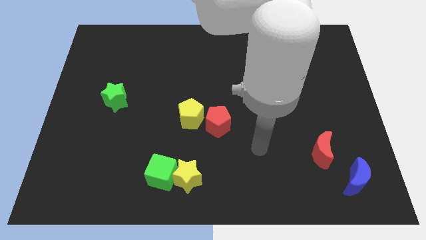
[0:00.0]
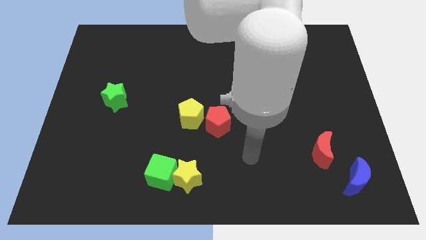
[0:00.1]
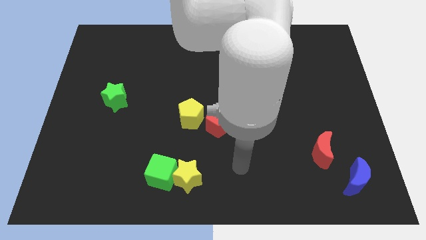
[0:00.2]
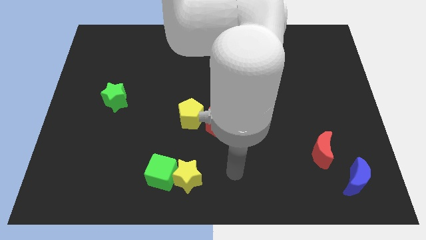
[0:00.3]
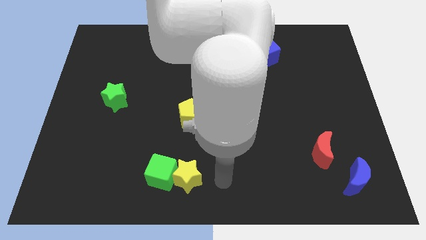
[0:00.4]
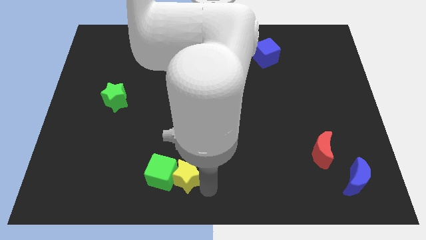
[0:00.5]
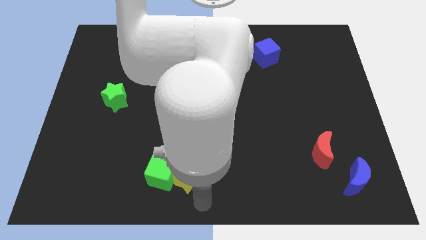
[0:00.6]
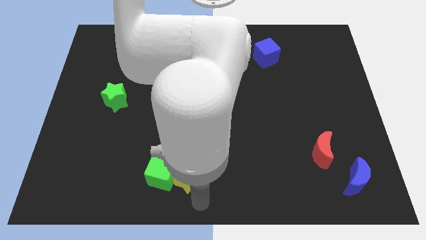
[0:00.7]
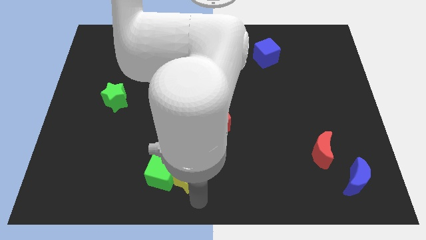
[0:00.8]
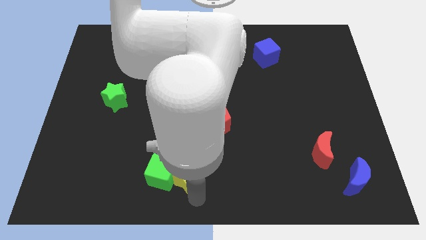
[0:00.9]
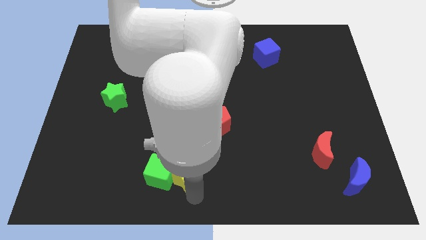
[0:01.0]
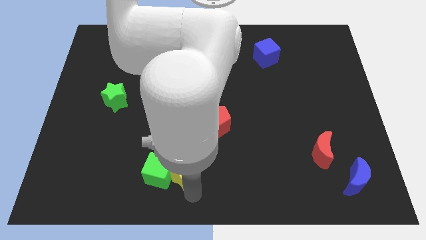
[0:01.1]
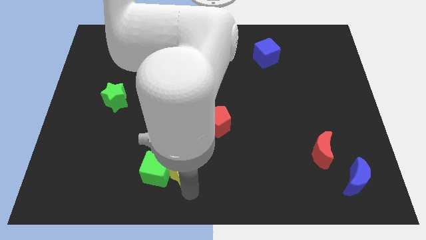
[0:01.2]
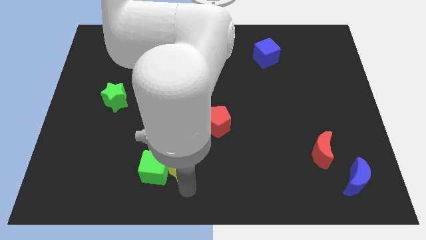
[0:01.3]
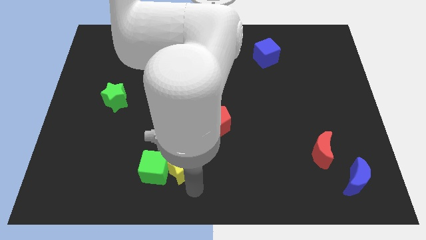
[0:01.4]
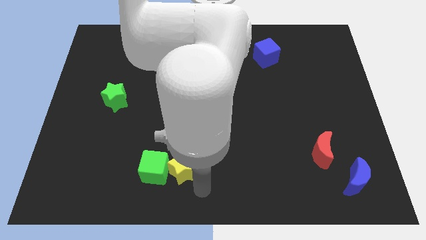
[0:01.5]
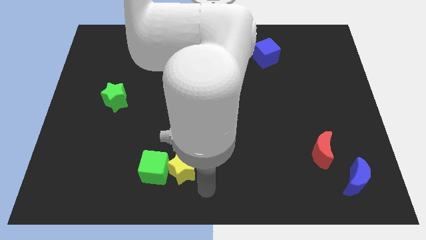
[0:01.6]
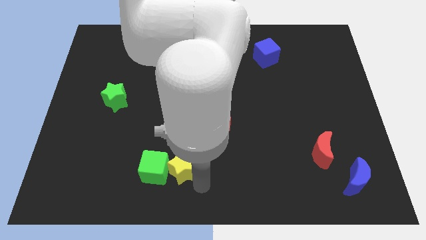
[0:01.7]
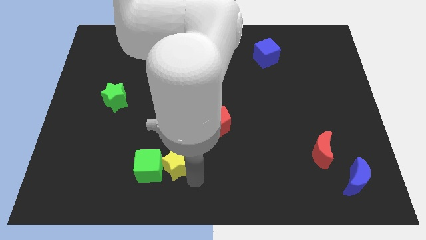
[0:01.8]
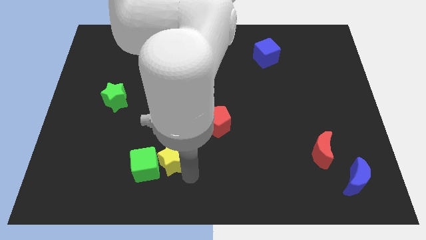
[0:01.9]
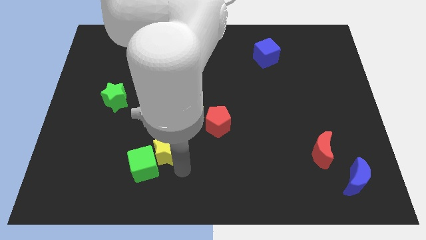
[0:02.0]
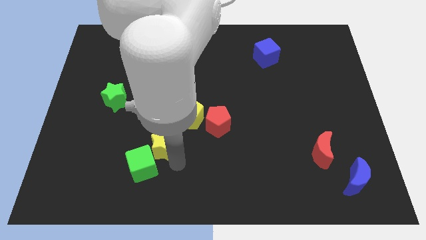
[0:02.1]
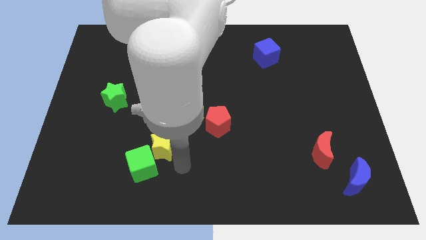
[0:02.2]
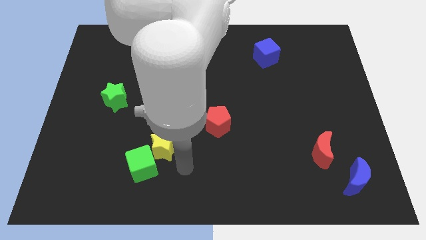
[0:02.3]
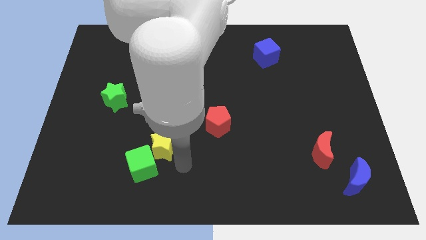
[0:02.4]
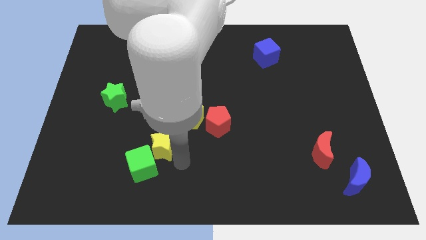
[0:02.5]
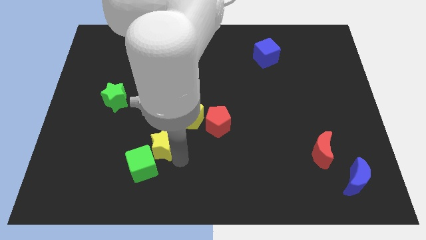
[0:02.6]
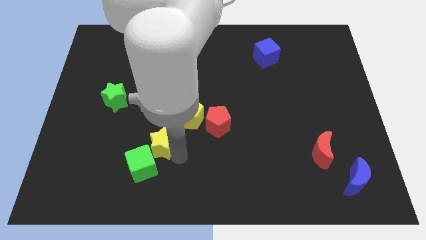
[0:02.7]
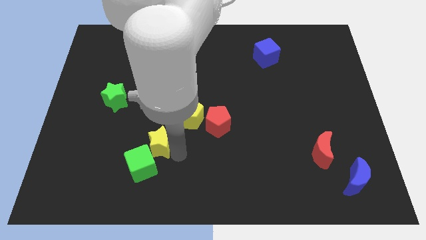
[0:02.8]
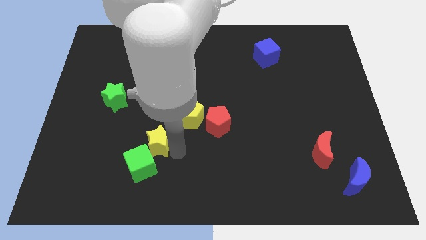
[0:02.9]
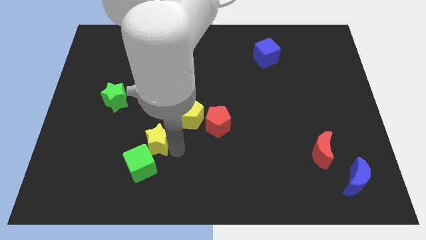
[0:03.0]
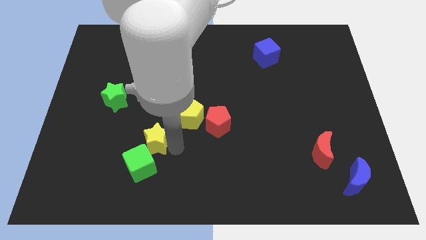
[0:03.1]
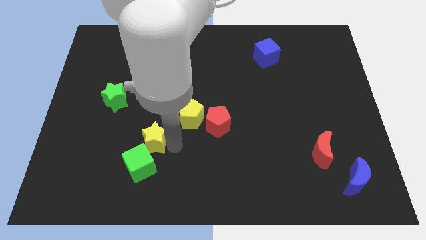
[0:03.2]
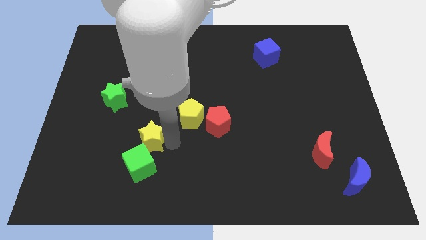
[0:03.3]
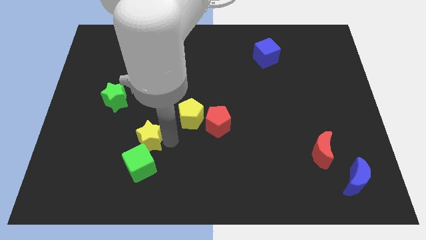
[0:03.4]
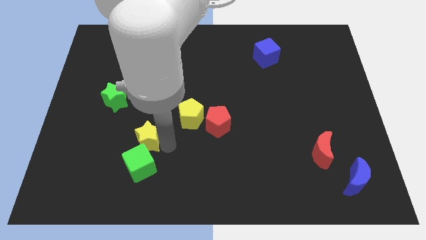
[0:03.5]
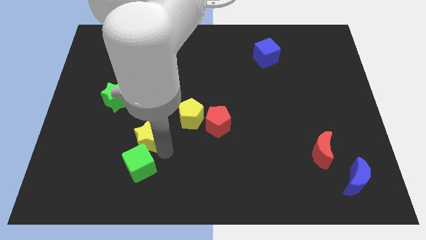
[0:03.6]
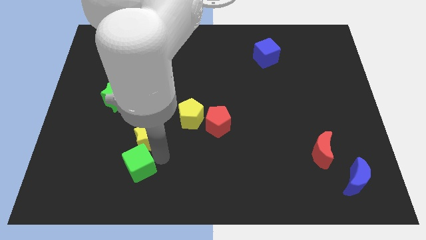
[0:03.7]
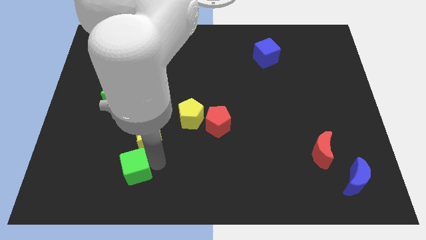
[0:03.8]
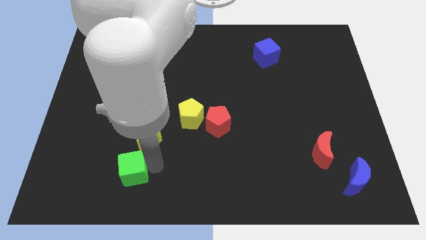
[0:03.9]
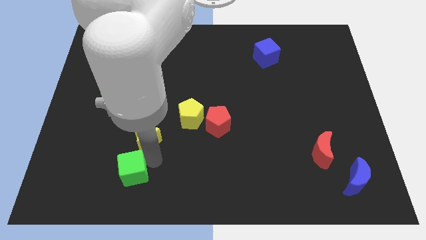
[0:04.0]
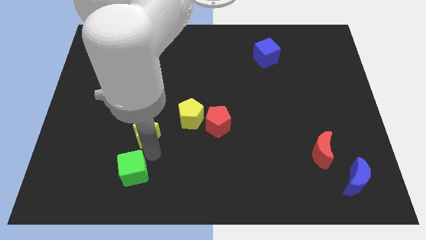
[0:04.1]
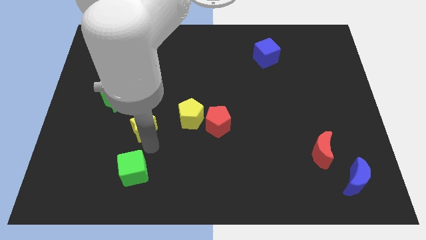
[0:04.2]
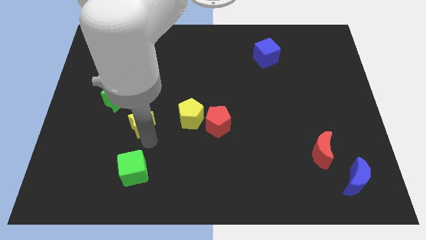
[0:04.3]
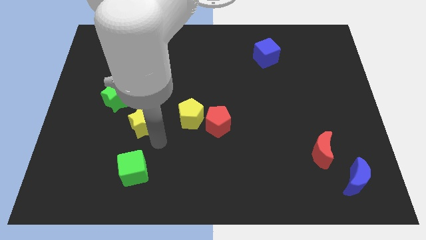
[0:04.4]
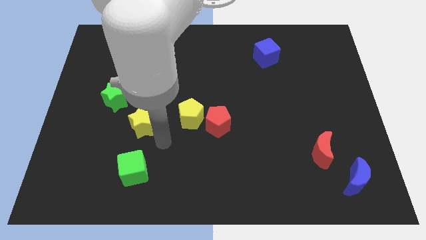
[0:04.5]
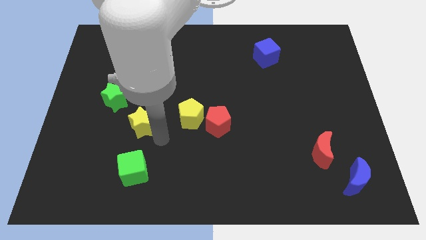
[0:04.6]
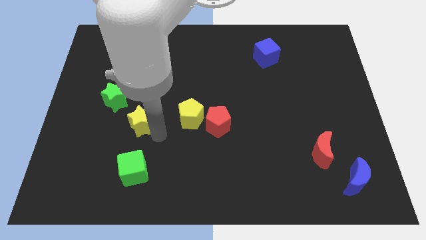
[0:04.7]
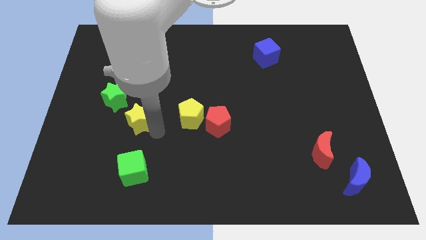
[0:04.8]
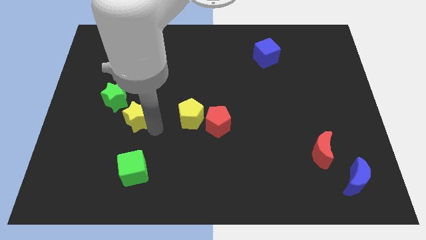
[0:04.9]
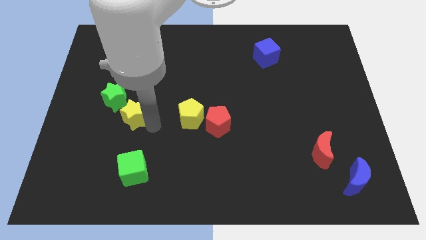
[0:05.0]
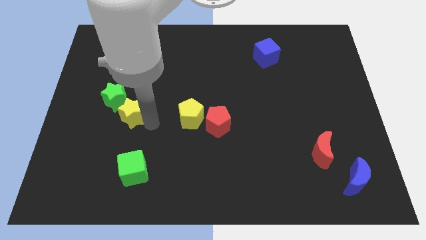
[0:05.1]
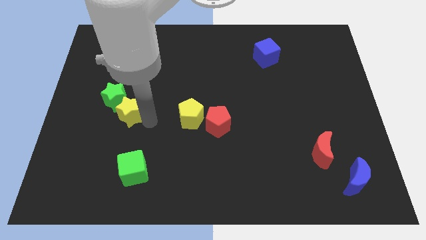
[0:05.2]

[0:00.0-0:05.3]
push the yellow star towards the green star

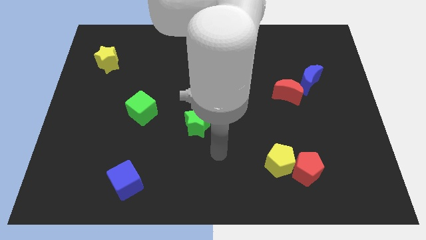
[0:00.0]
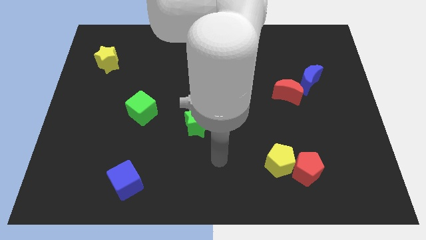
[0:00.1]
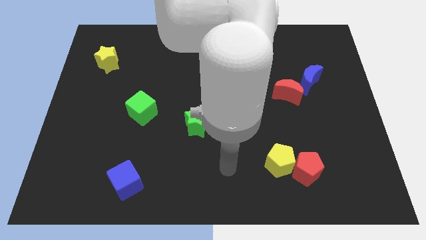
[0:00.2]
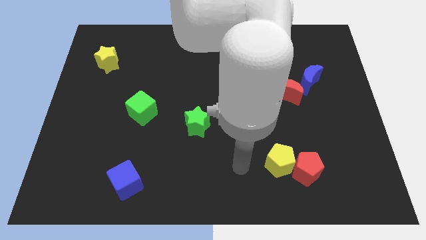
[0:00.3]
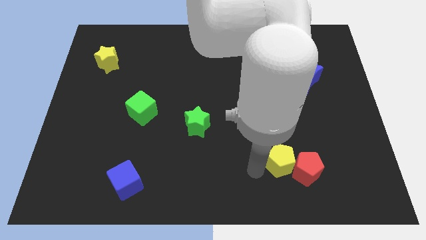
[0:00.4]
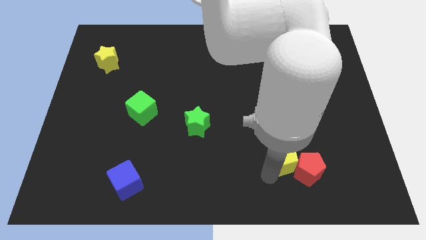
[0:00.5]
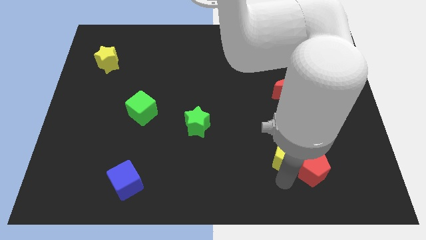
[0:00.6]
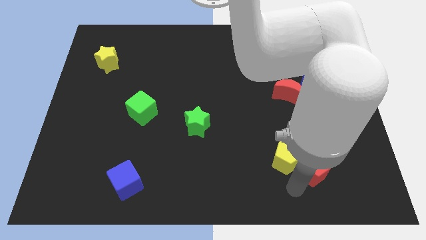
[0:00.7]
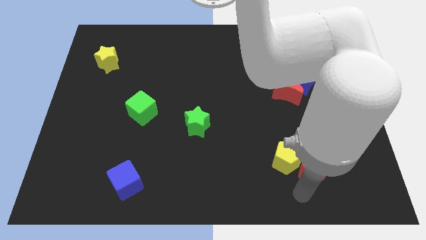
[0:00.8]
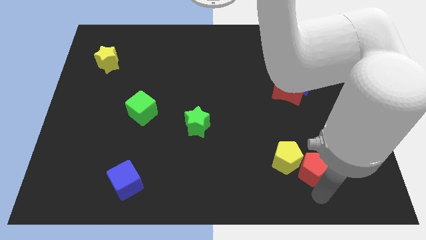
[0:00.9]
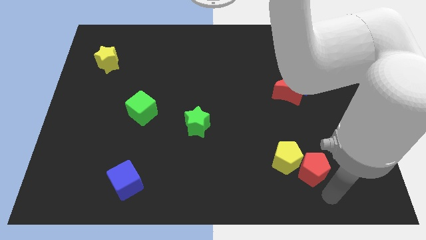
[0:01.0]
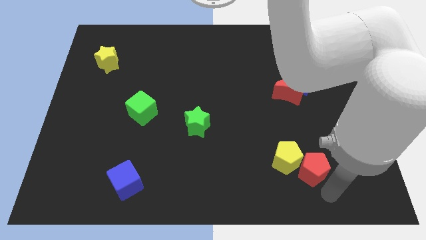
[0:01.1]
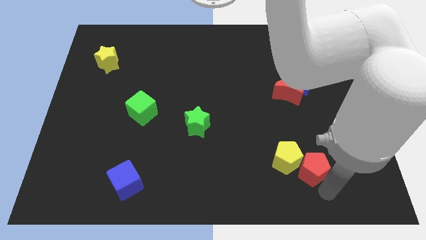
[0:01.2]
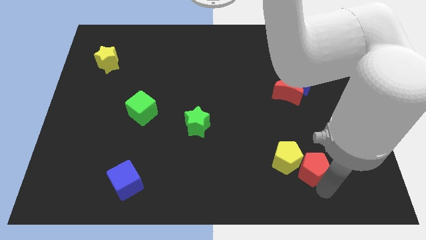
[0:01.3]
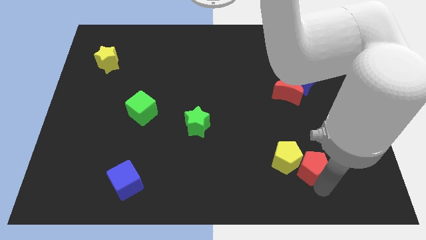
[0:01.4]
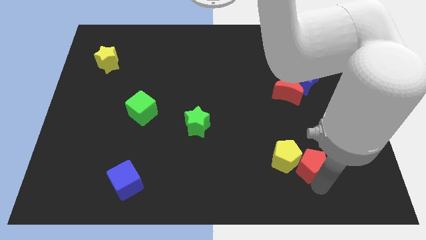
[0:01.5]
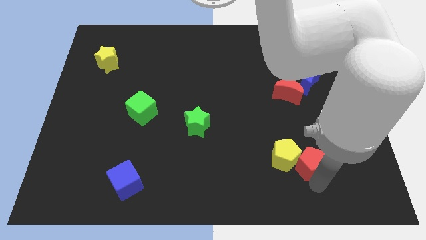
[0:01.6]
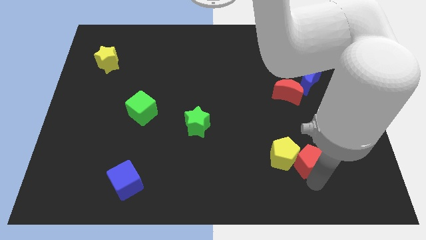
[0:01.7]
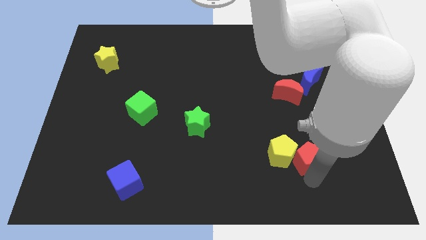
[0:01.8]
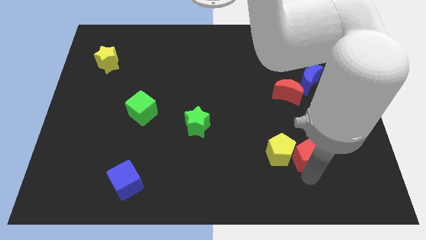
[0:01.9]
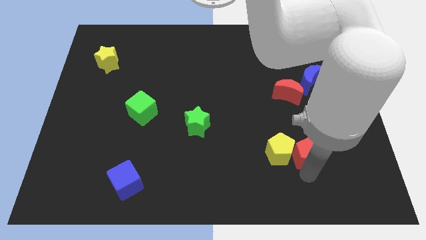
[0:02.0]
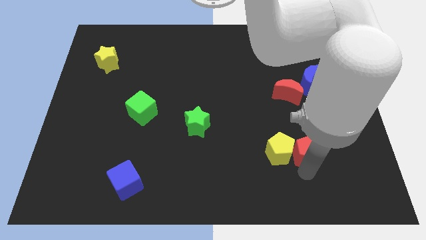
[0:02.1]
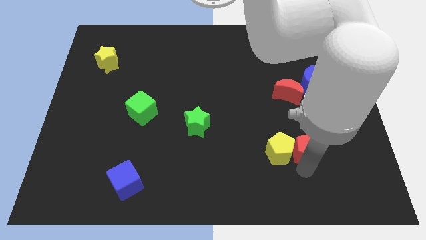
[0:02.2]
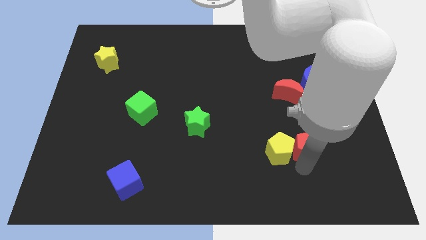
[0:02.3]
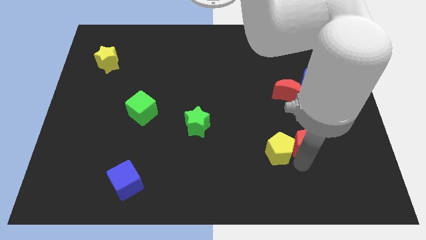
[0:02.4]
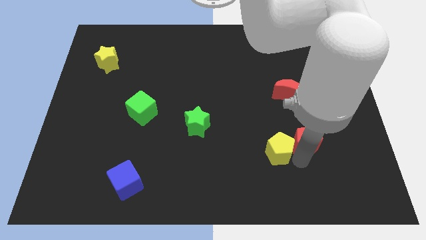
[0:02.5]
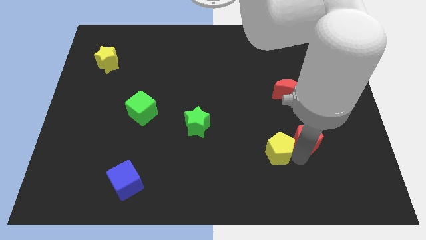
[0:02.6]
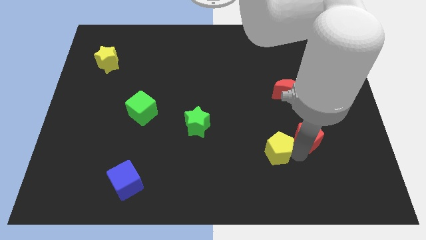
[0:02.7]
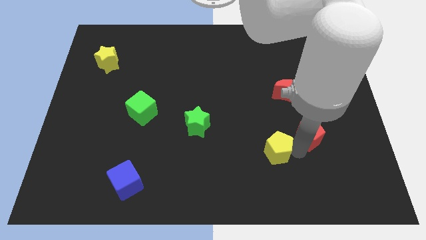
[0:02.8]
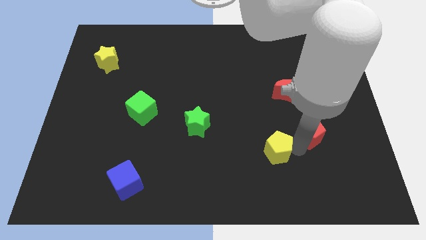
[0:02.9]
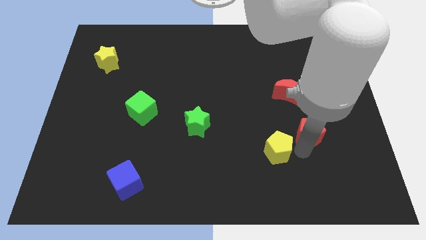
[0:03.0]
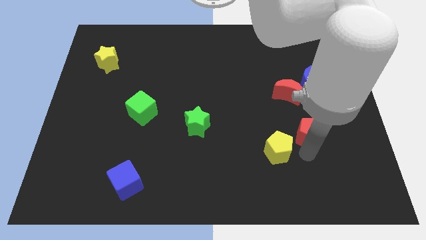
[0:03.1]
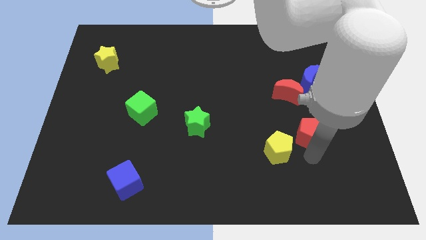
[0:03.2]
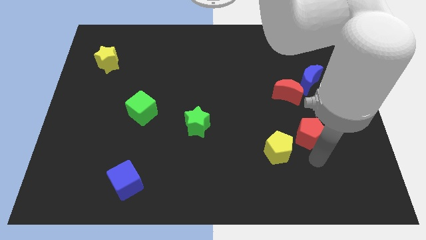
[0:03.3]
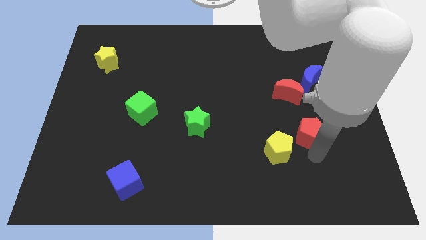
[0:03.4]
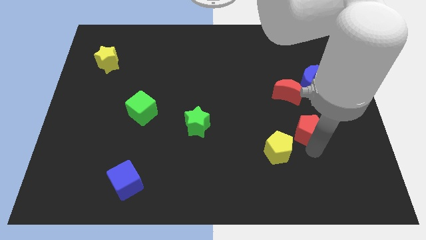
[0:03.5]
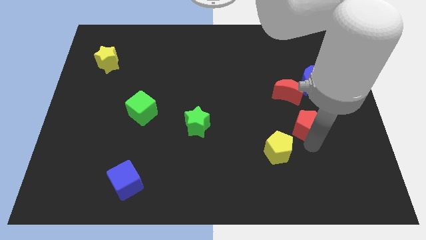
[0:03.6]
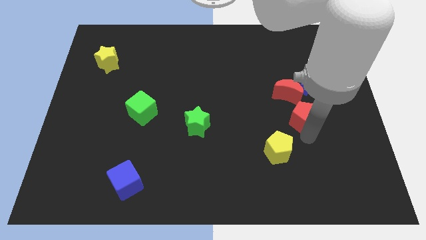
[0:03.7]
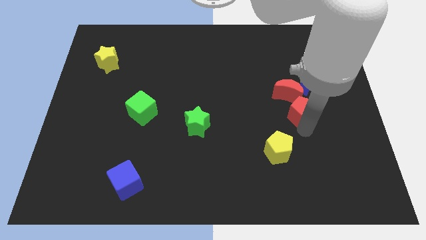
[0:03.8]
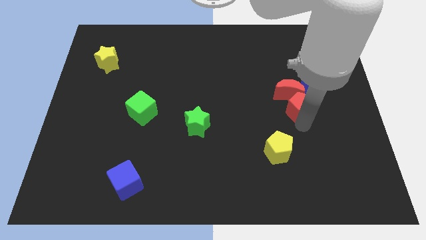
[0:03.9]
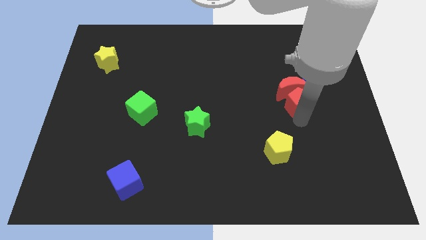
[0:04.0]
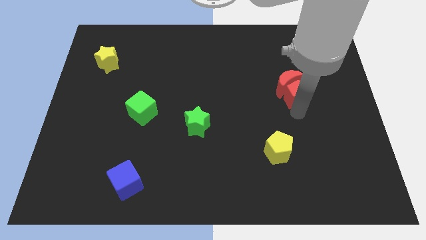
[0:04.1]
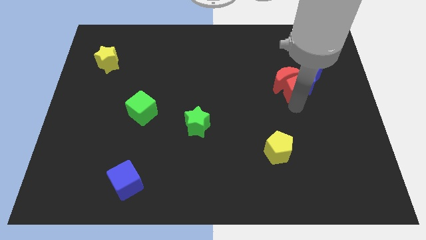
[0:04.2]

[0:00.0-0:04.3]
push the red pentagon next to the blue moon
